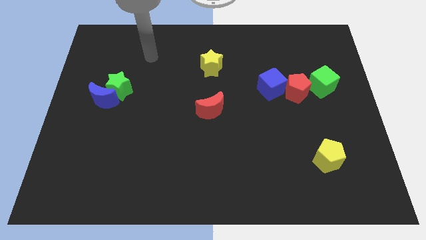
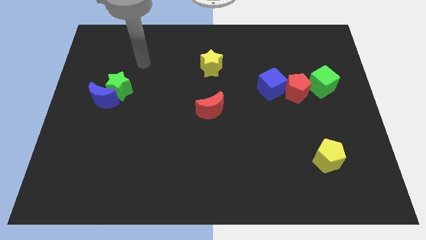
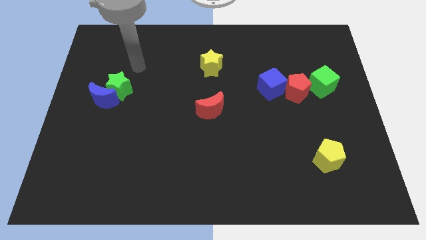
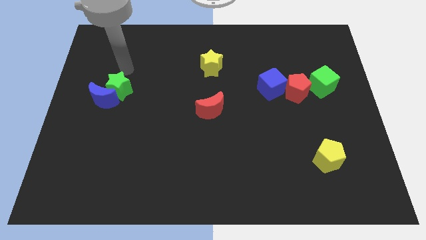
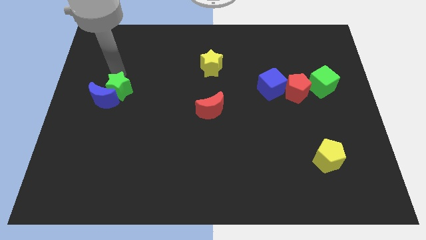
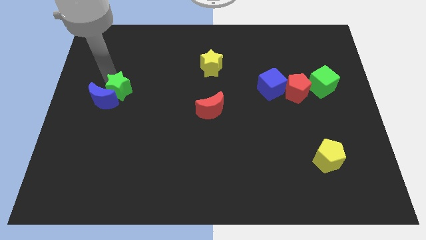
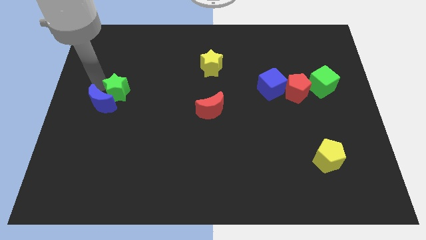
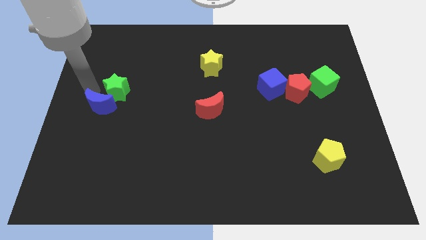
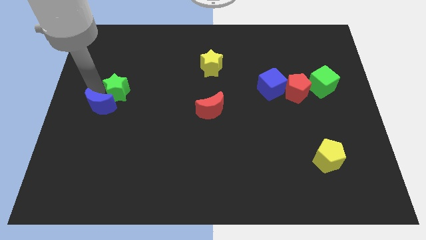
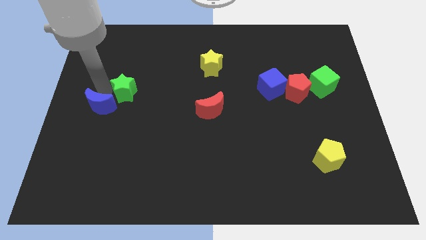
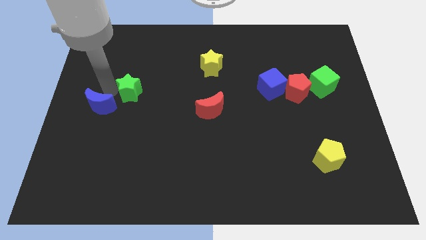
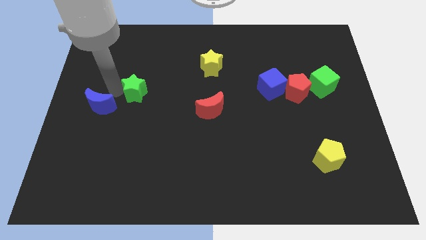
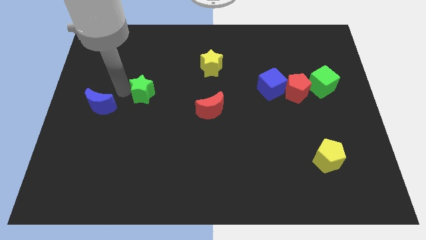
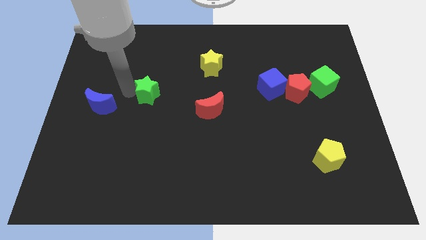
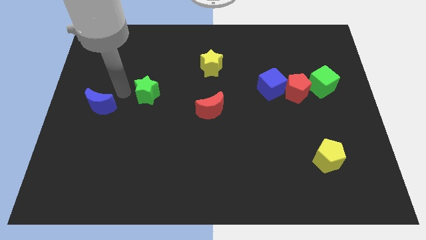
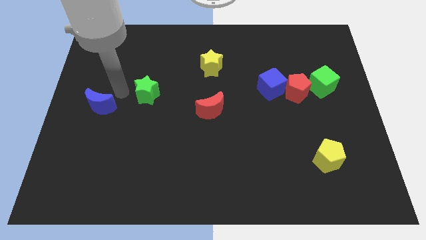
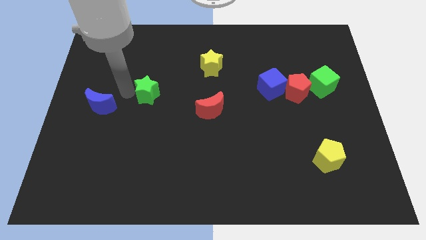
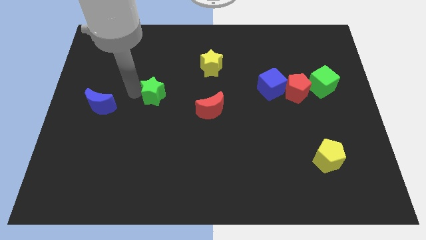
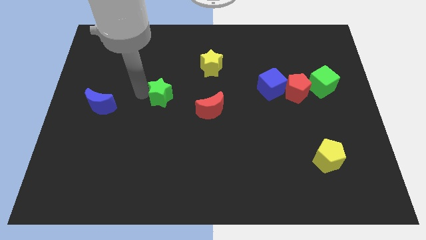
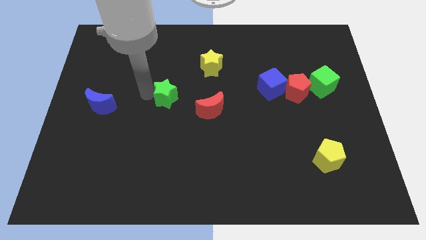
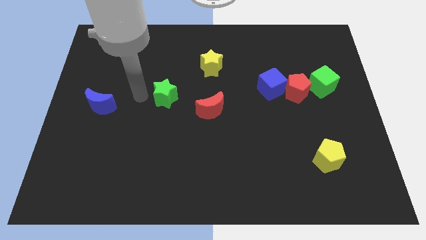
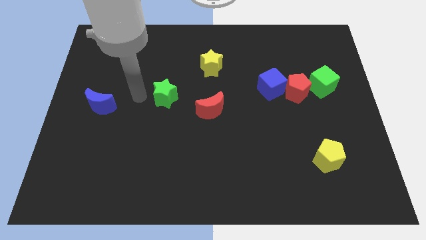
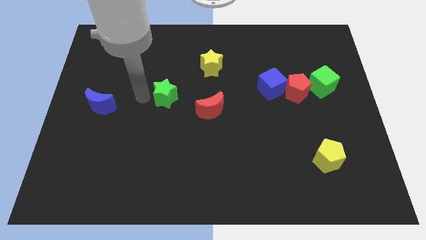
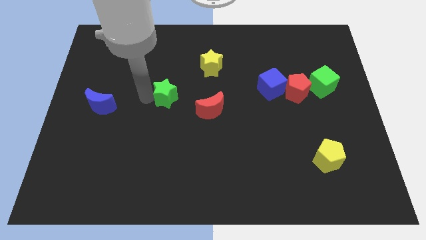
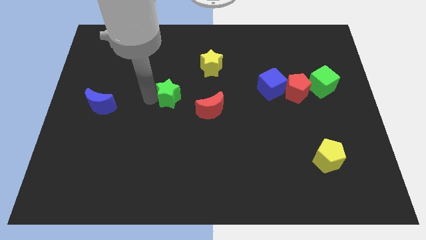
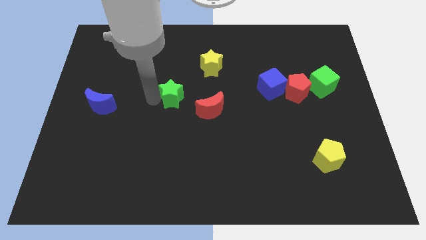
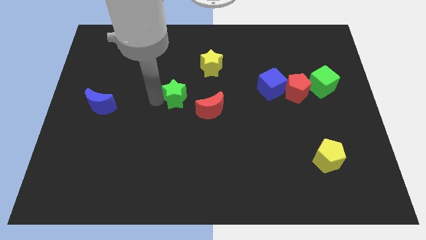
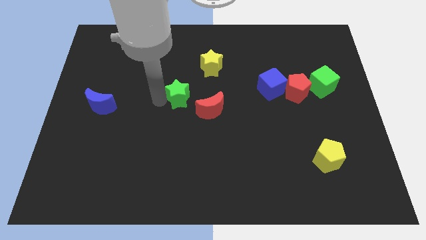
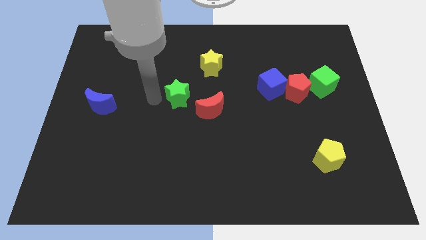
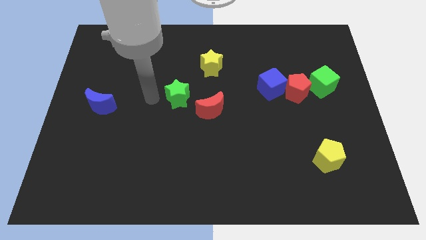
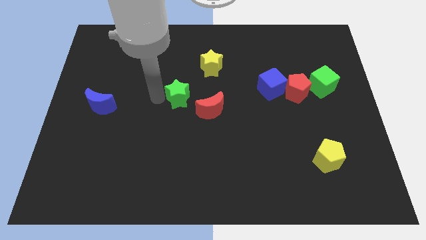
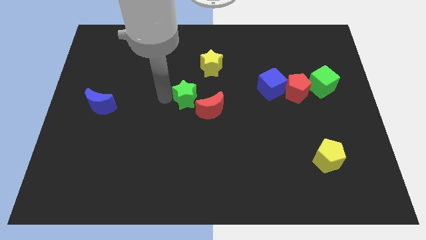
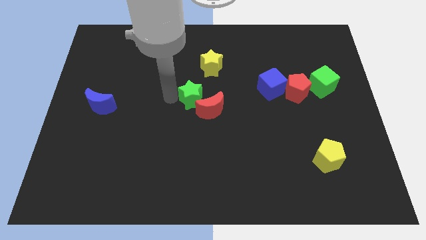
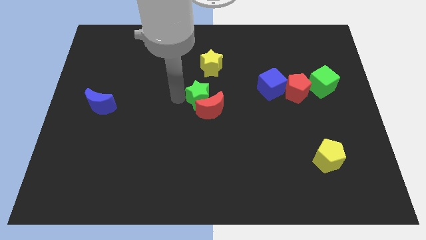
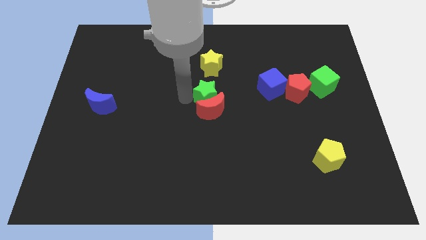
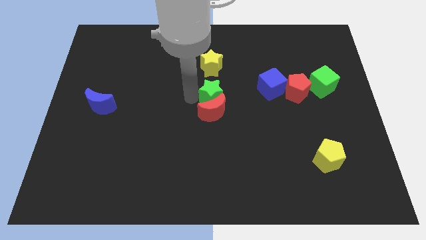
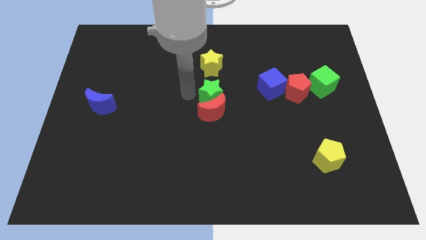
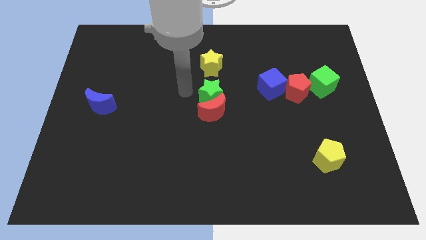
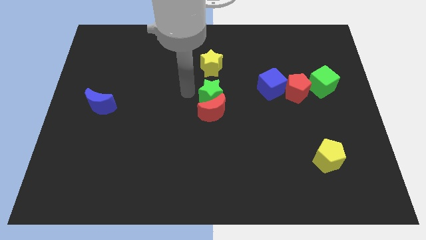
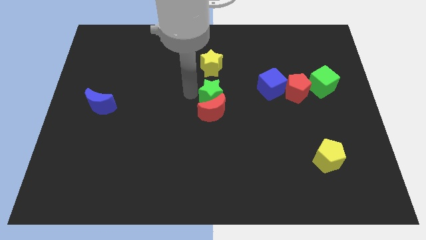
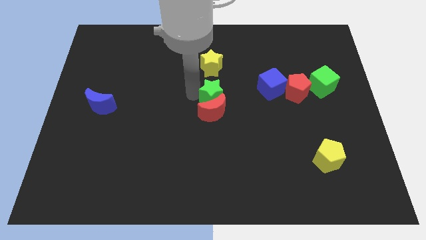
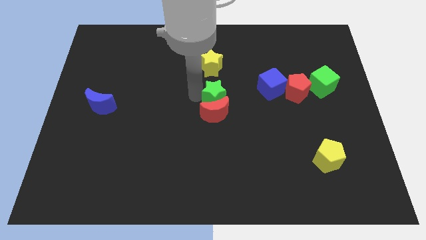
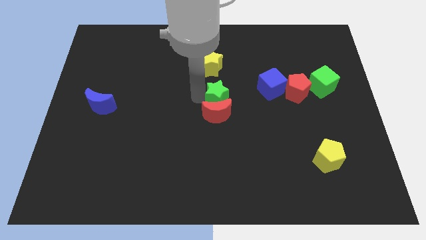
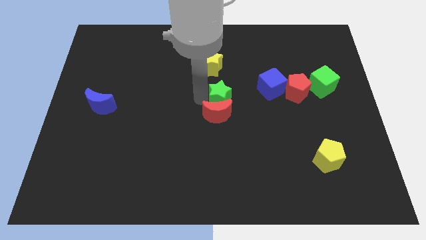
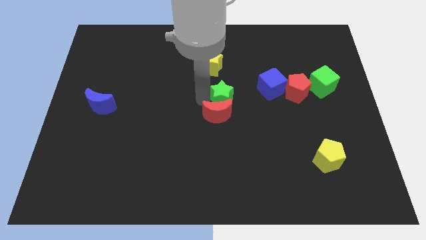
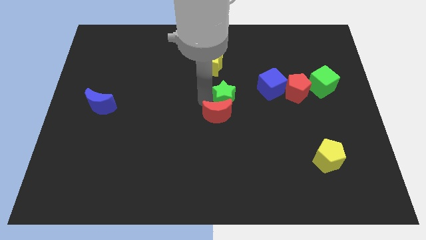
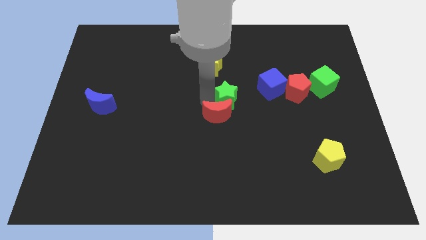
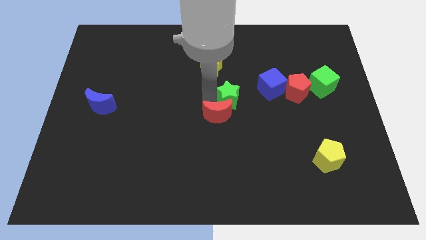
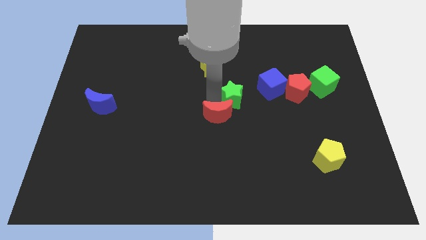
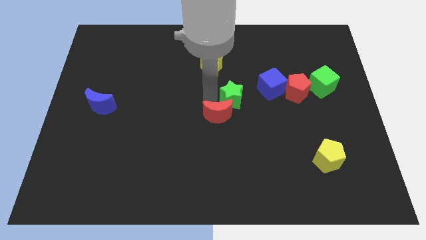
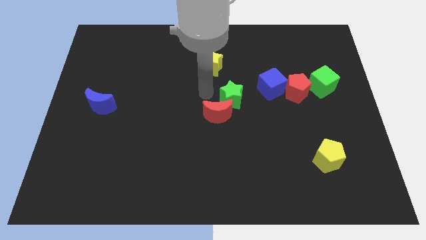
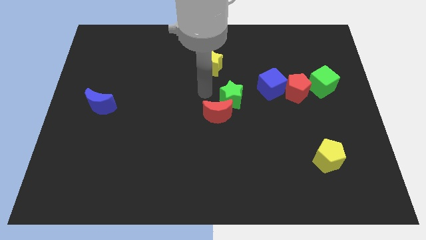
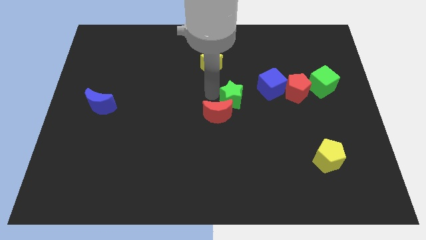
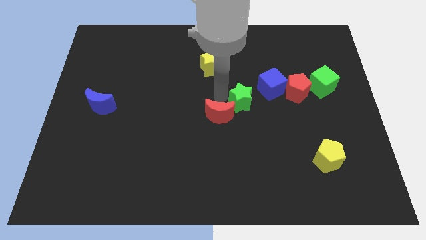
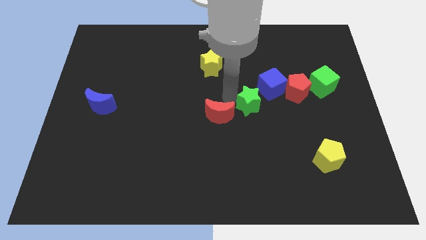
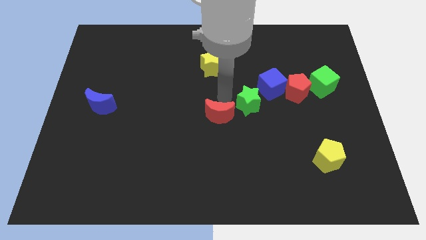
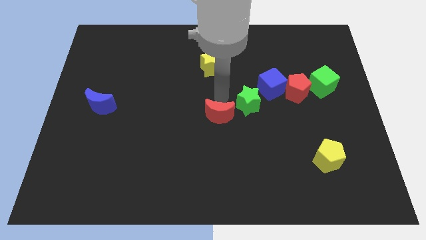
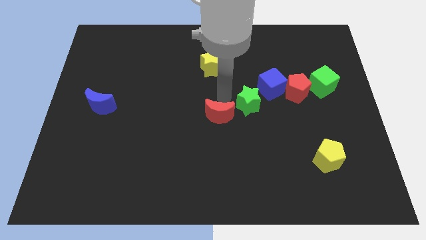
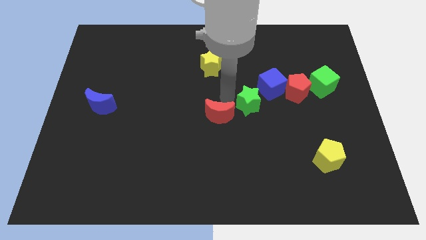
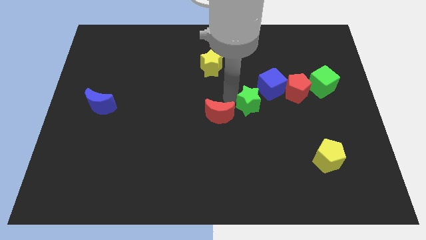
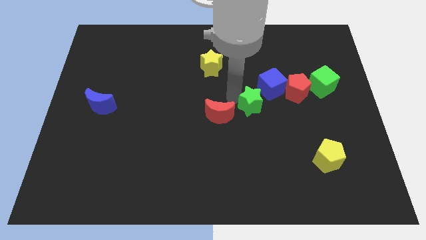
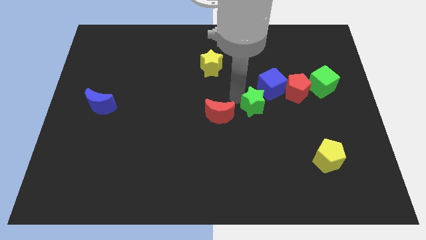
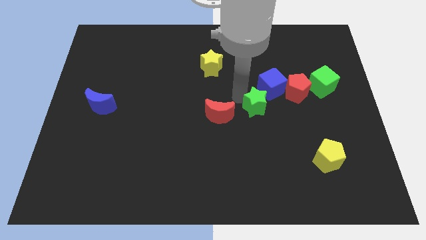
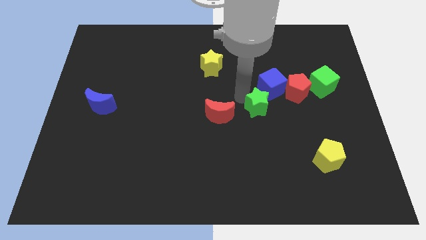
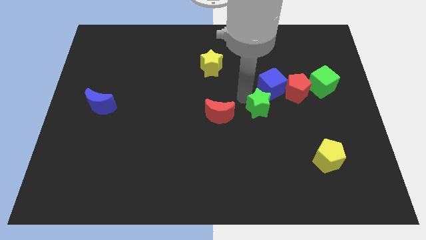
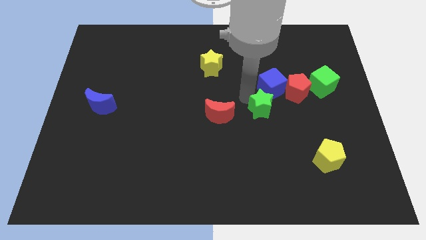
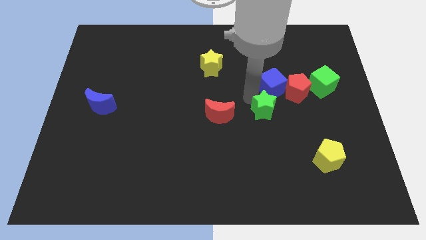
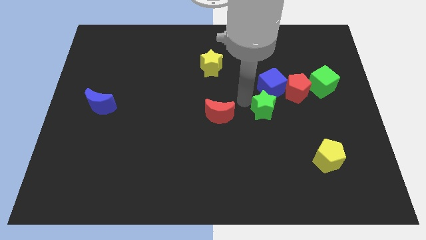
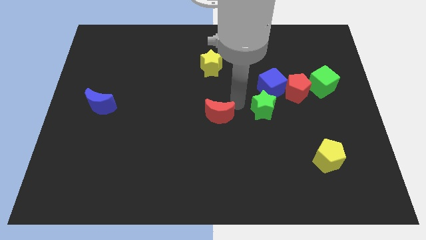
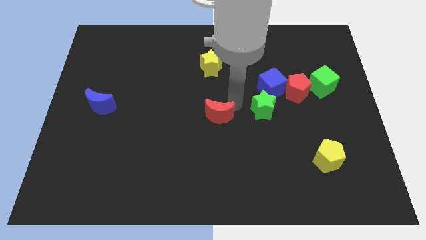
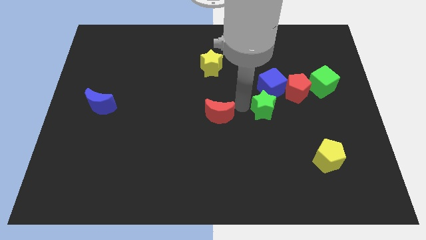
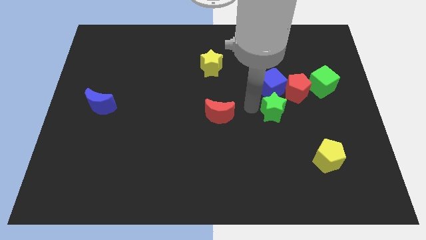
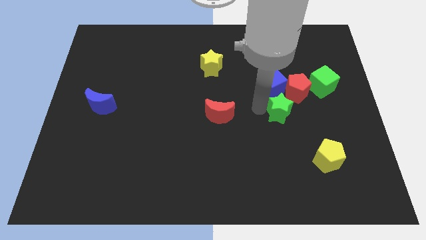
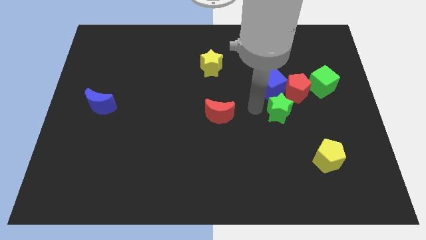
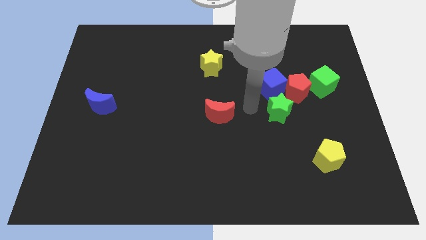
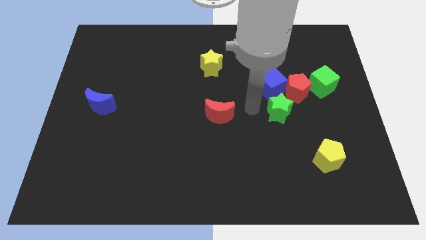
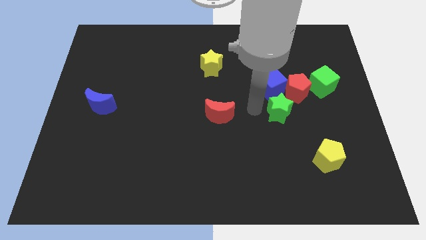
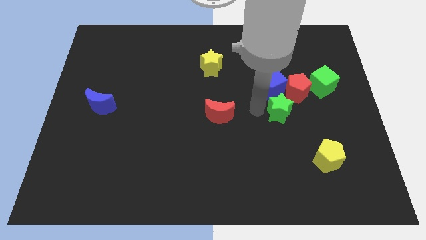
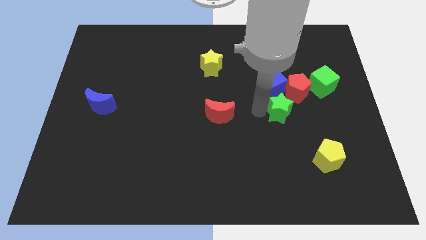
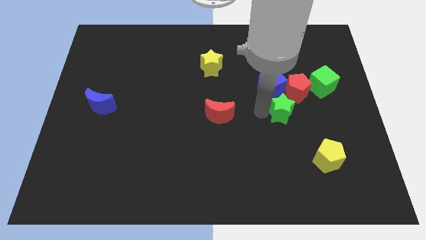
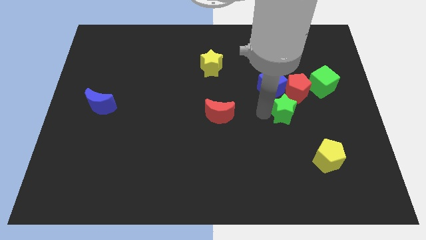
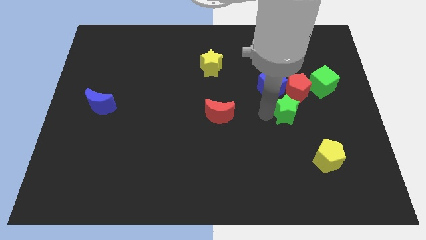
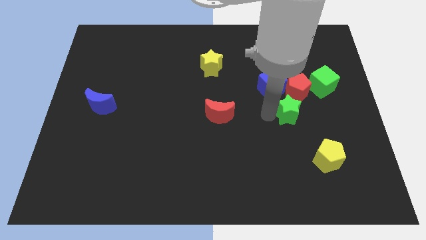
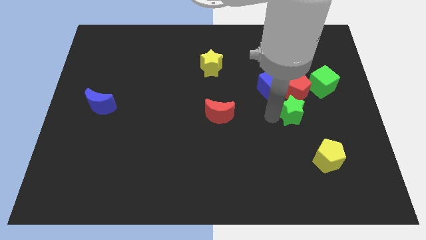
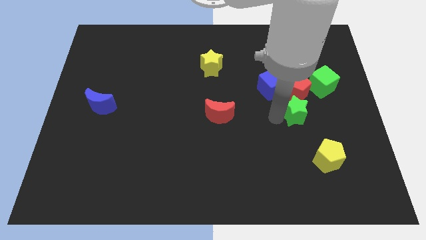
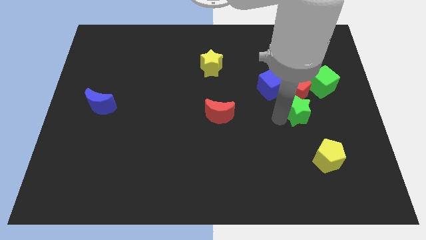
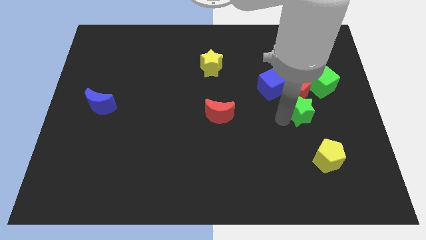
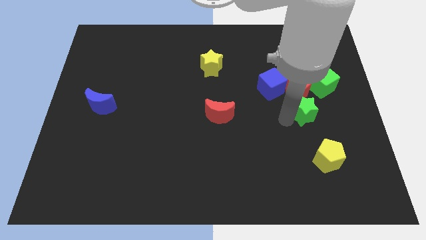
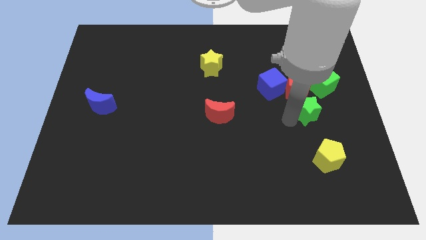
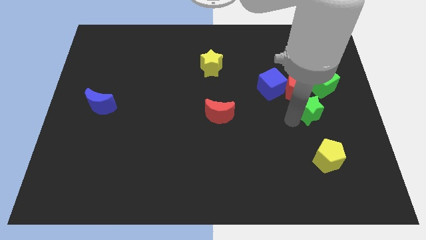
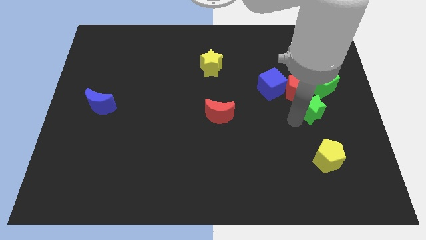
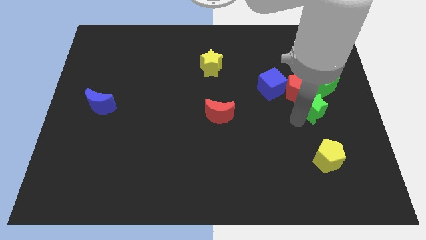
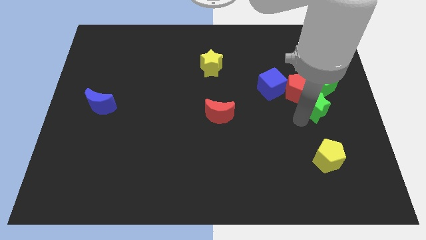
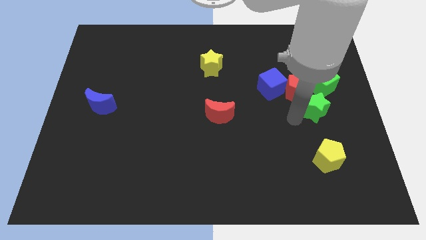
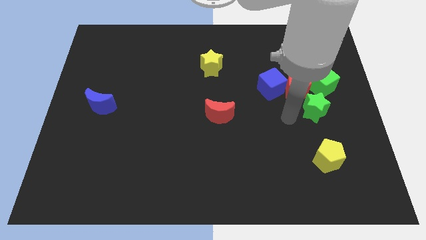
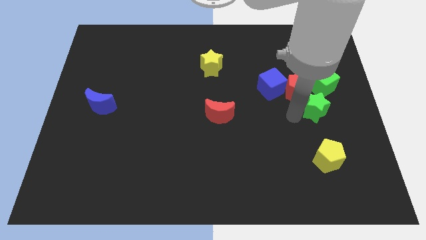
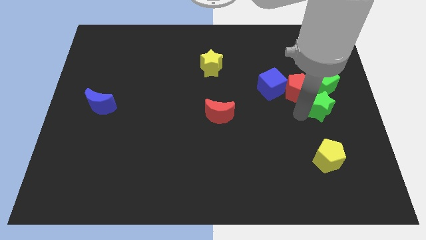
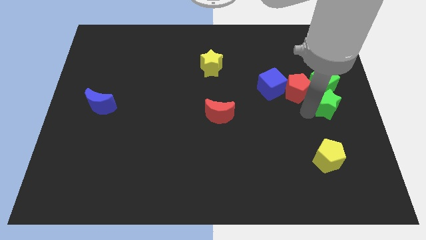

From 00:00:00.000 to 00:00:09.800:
put the green star to the right side of the board
